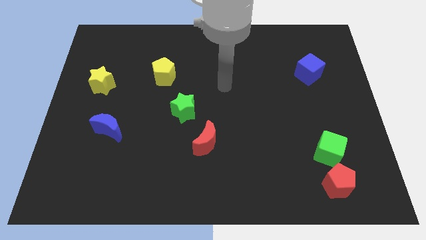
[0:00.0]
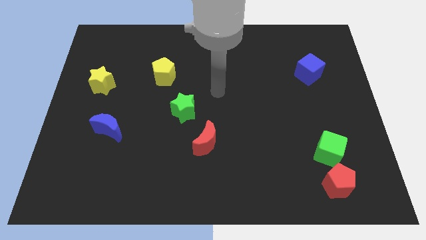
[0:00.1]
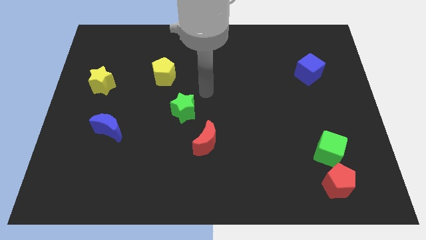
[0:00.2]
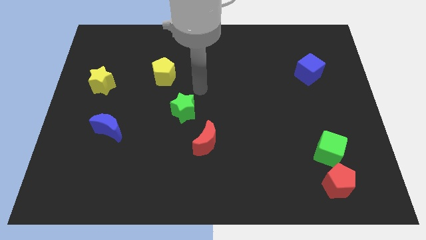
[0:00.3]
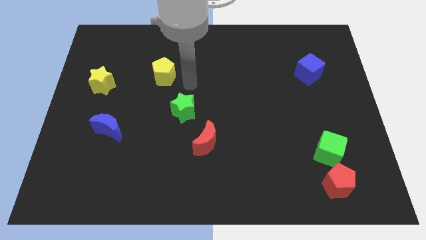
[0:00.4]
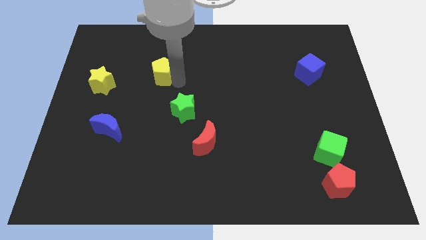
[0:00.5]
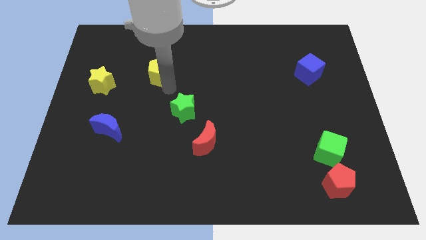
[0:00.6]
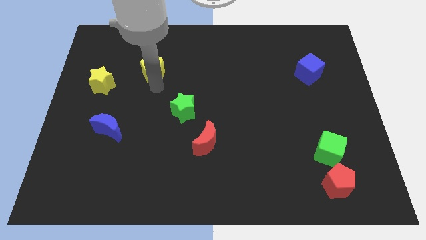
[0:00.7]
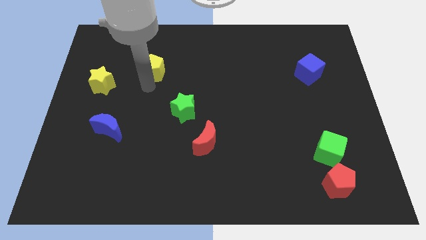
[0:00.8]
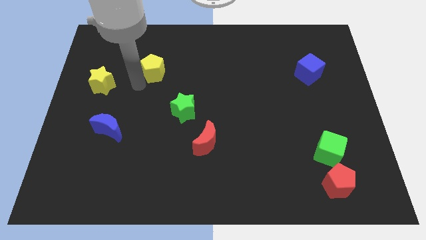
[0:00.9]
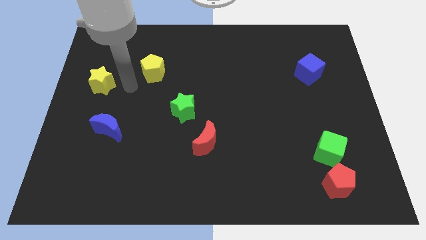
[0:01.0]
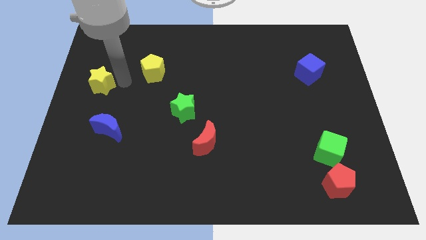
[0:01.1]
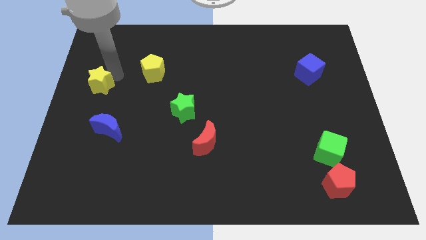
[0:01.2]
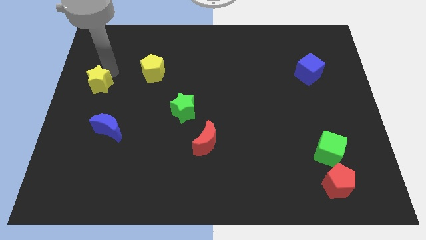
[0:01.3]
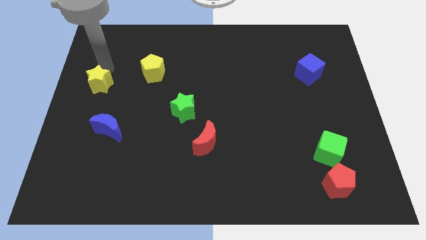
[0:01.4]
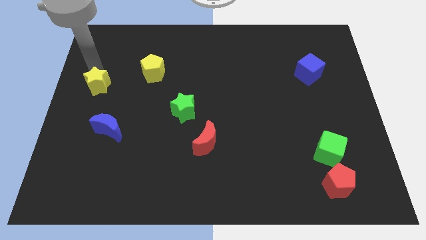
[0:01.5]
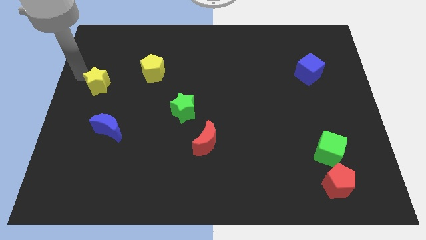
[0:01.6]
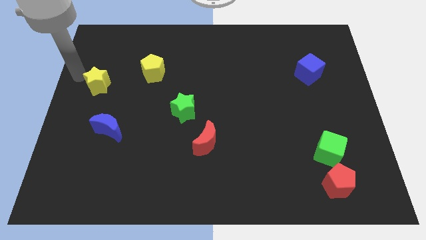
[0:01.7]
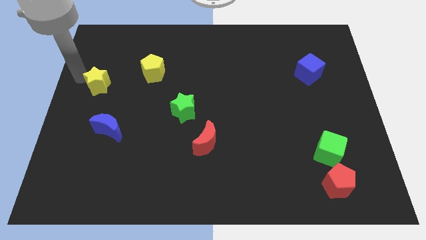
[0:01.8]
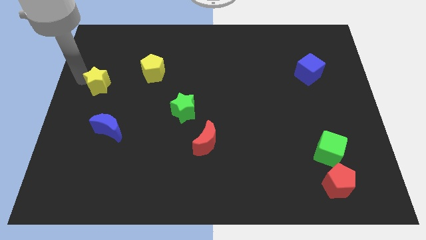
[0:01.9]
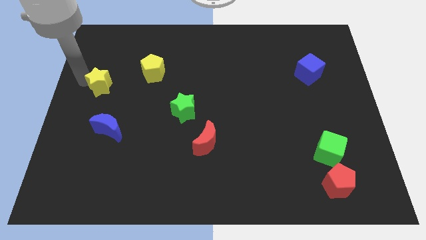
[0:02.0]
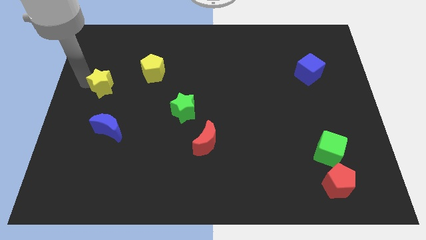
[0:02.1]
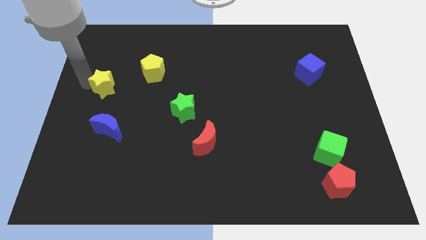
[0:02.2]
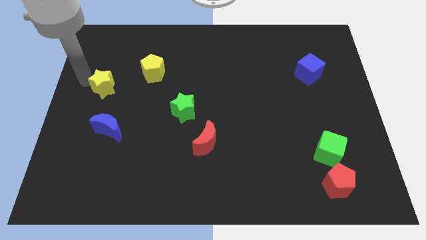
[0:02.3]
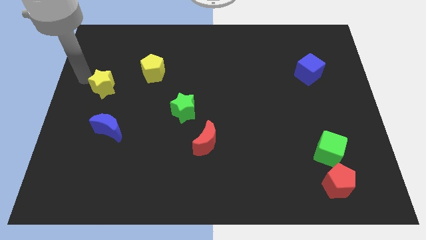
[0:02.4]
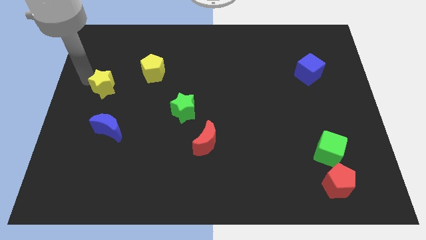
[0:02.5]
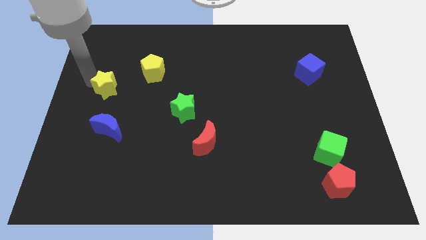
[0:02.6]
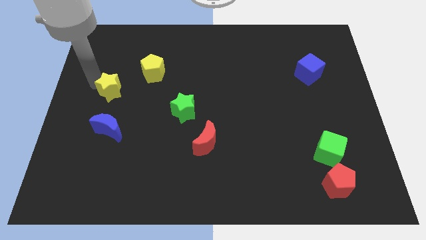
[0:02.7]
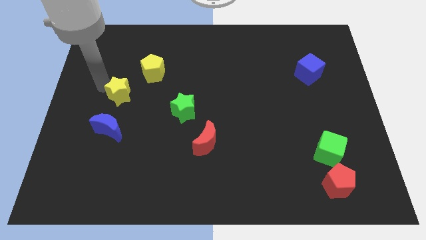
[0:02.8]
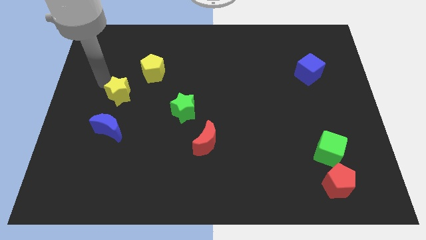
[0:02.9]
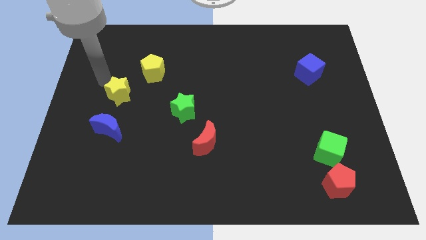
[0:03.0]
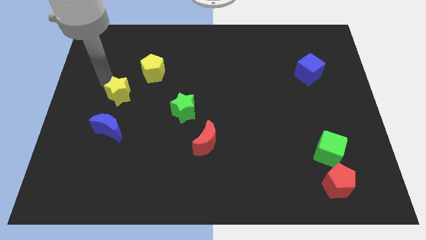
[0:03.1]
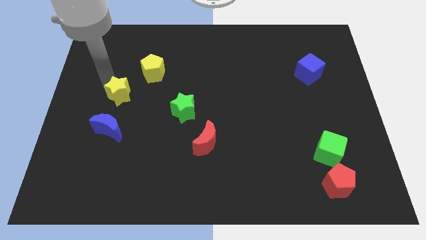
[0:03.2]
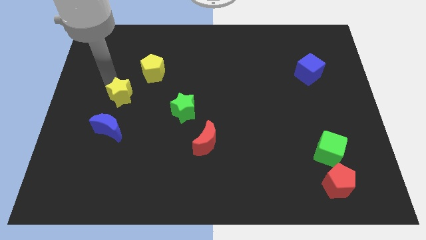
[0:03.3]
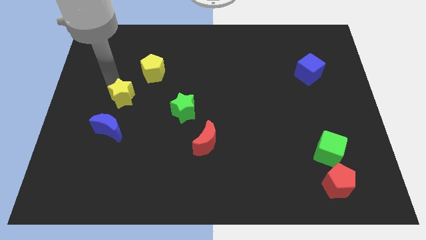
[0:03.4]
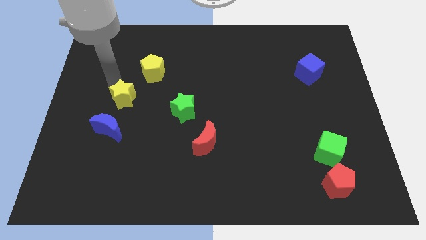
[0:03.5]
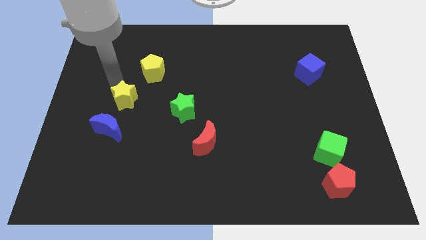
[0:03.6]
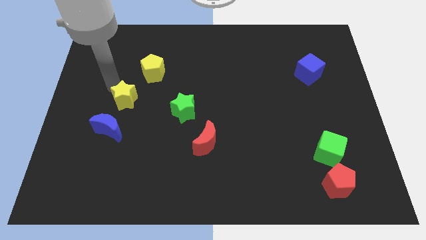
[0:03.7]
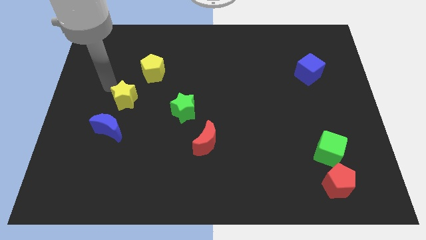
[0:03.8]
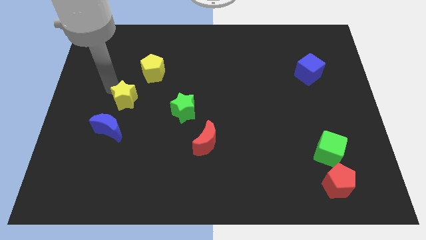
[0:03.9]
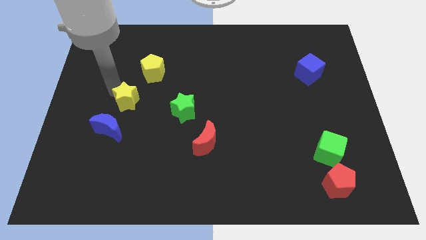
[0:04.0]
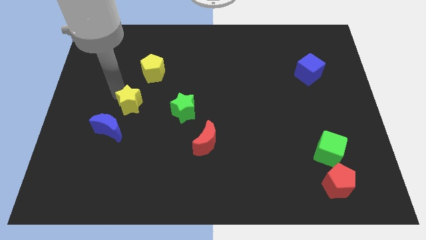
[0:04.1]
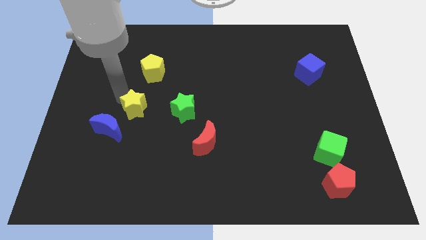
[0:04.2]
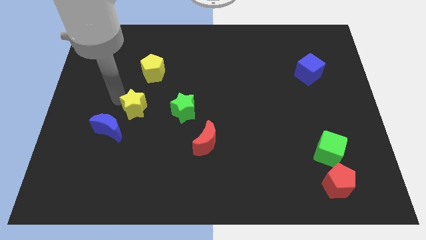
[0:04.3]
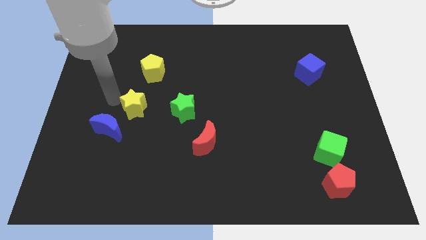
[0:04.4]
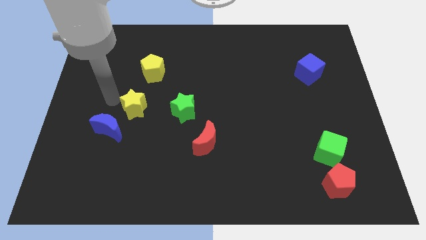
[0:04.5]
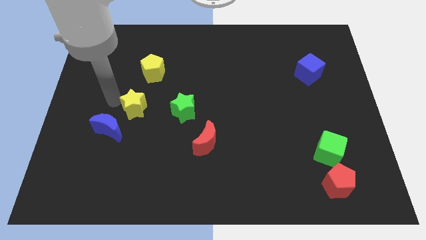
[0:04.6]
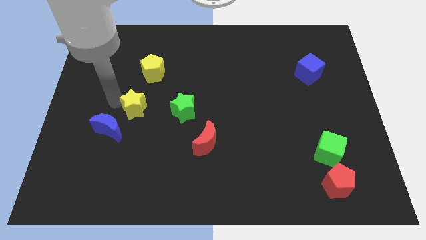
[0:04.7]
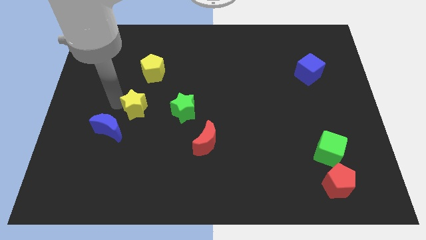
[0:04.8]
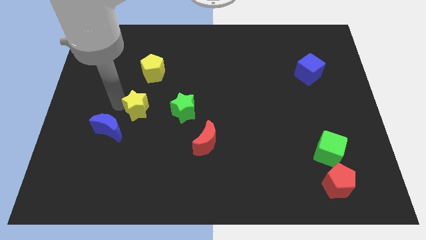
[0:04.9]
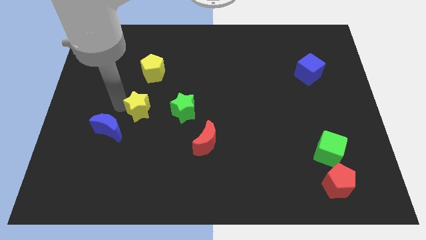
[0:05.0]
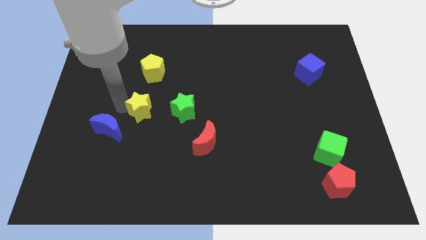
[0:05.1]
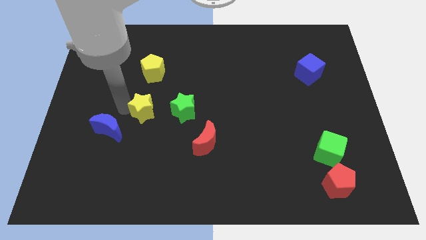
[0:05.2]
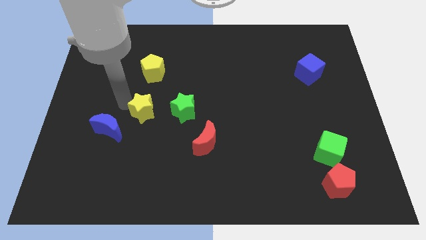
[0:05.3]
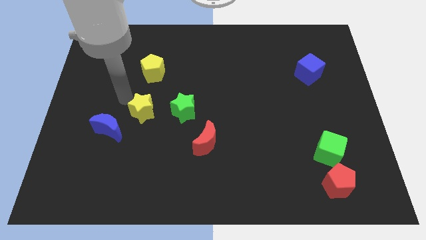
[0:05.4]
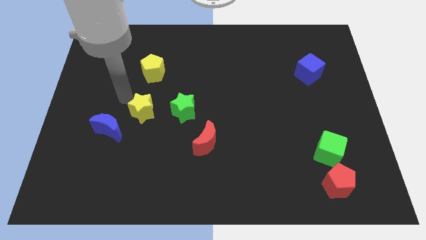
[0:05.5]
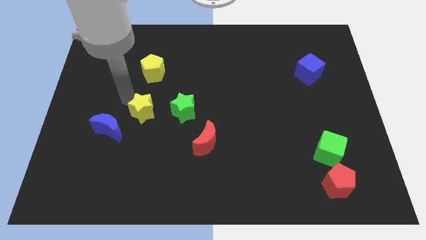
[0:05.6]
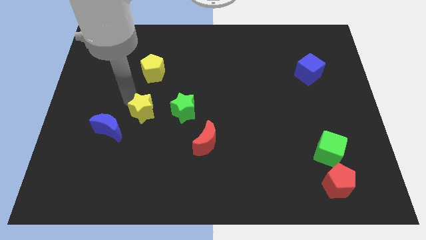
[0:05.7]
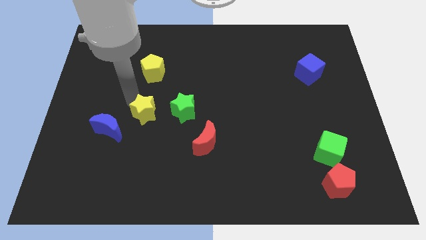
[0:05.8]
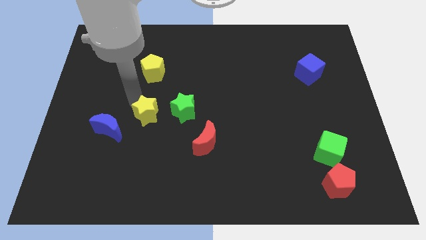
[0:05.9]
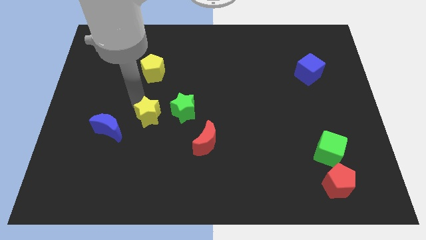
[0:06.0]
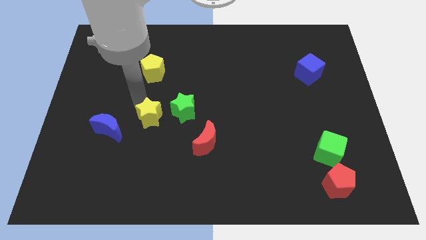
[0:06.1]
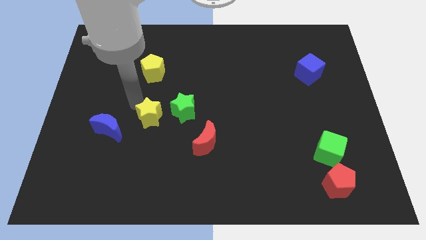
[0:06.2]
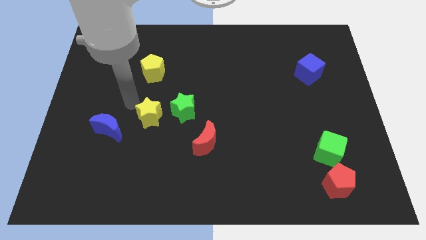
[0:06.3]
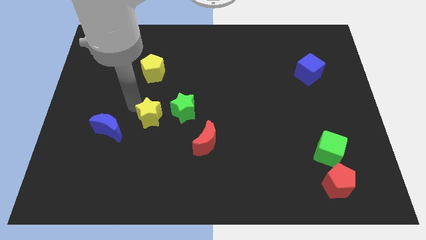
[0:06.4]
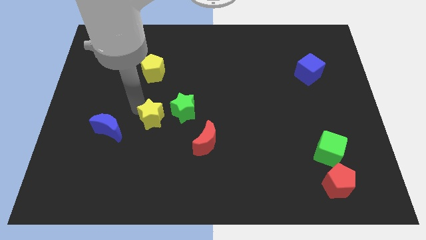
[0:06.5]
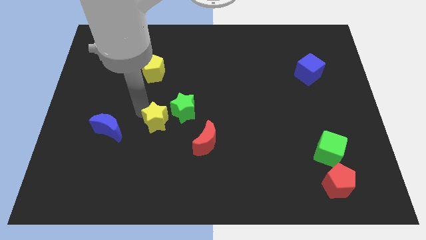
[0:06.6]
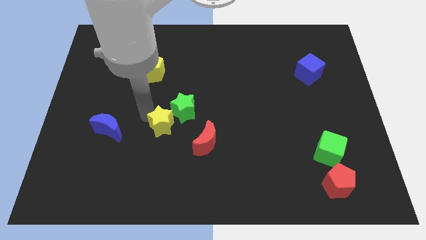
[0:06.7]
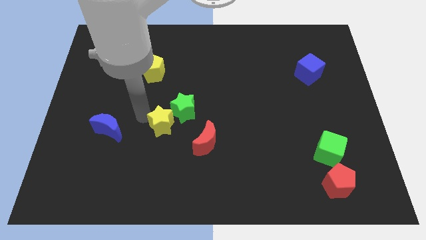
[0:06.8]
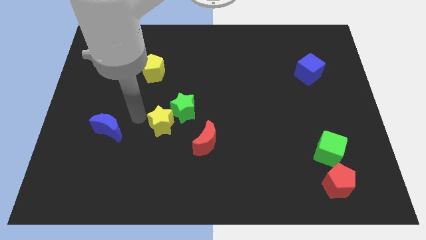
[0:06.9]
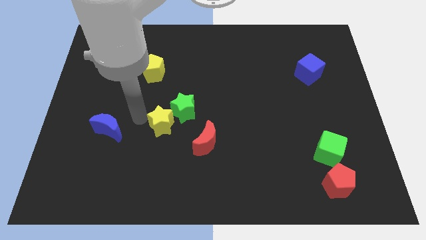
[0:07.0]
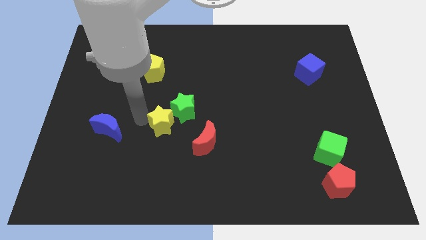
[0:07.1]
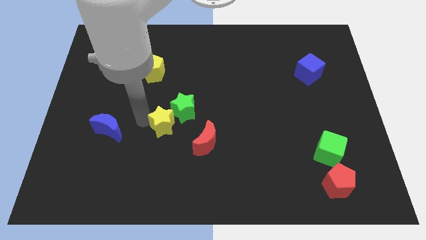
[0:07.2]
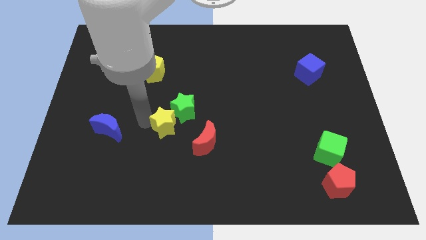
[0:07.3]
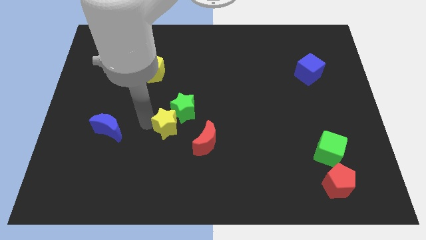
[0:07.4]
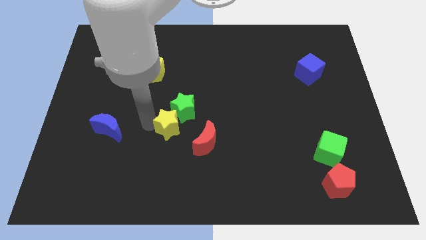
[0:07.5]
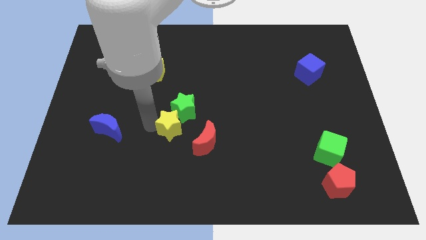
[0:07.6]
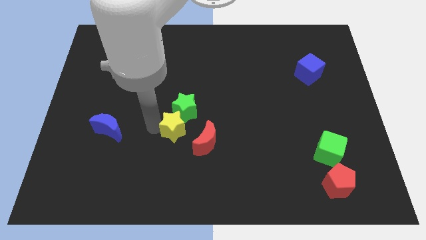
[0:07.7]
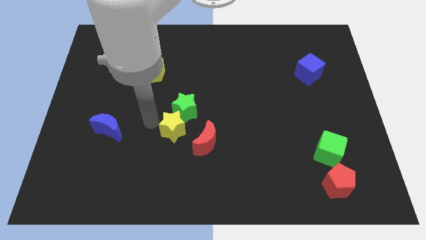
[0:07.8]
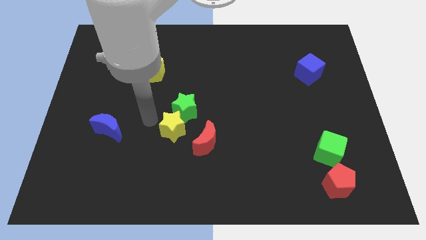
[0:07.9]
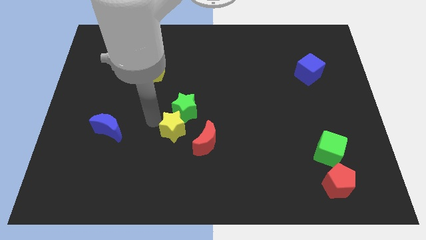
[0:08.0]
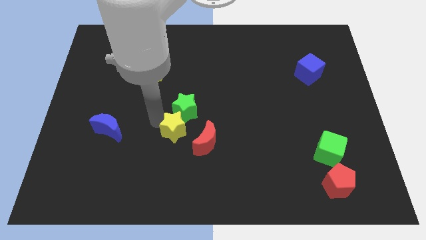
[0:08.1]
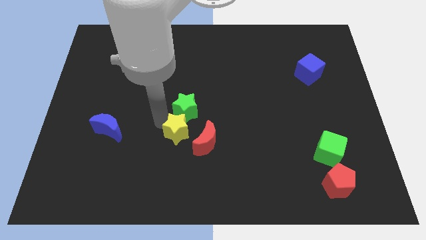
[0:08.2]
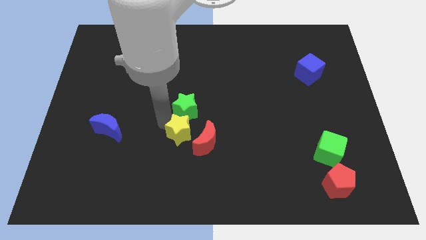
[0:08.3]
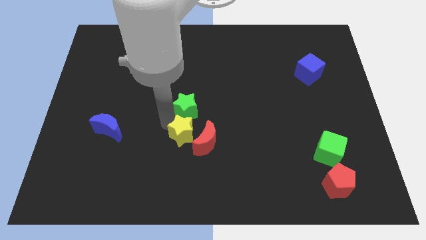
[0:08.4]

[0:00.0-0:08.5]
push the yellow star to the red moon
